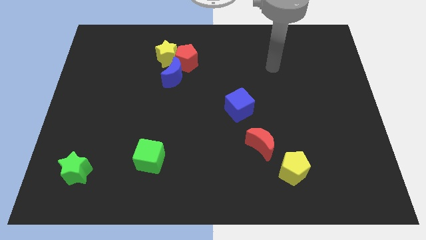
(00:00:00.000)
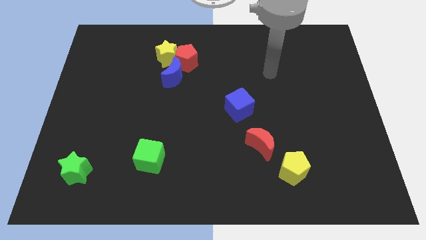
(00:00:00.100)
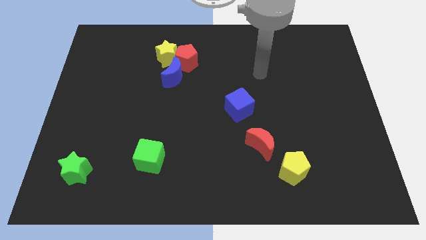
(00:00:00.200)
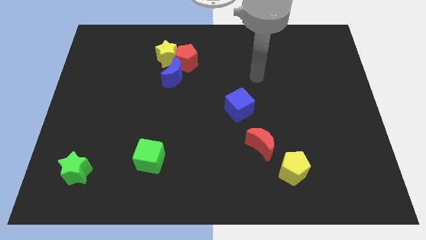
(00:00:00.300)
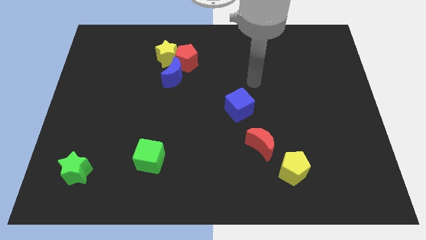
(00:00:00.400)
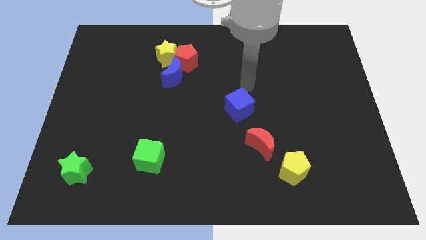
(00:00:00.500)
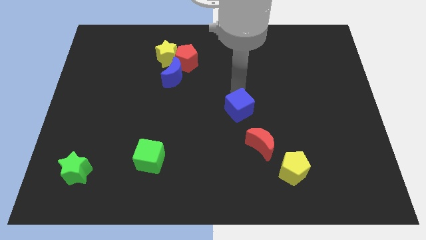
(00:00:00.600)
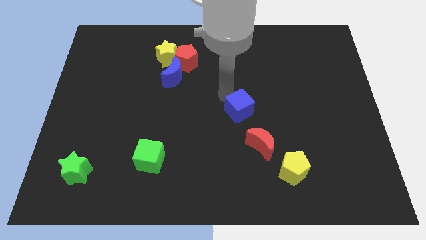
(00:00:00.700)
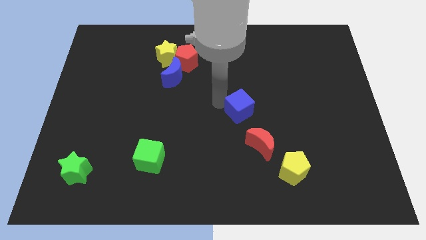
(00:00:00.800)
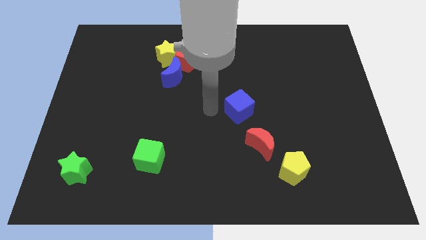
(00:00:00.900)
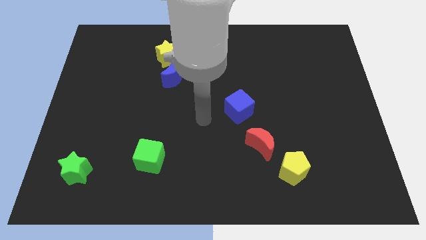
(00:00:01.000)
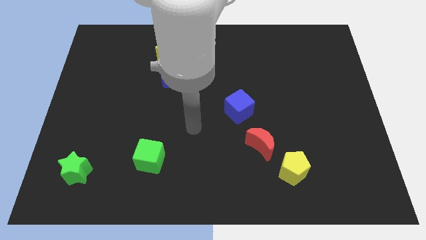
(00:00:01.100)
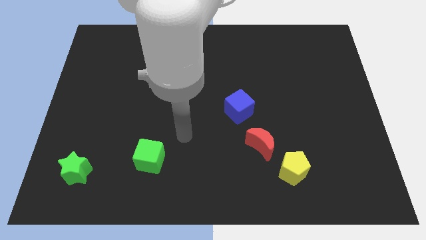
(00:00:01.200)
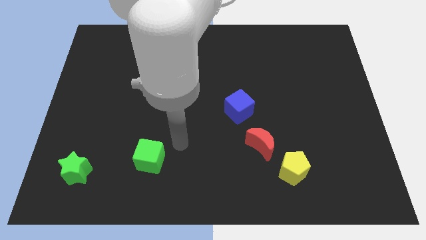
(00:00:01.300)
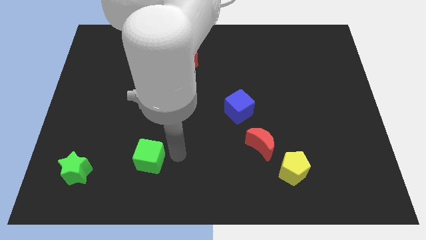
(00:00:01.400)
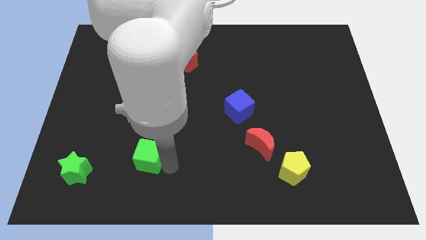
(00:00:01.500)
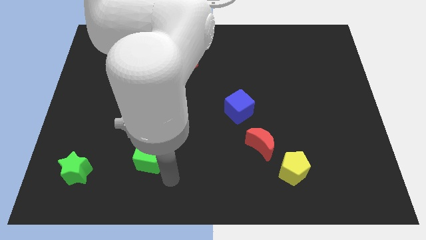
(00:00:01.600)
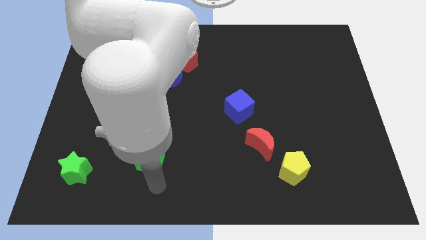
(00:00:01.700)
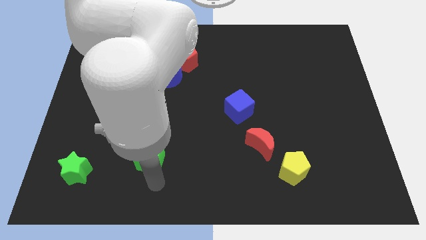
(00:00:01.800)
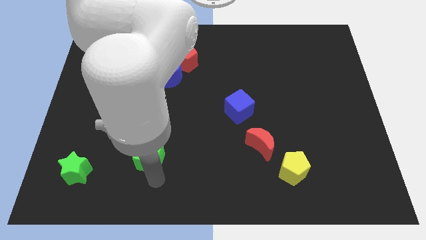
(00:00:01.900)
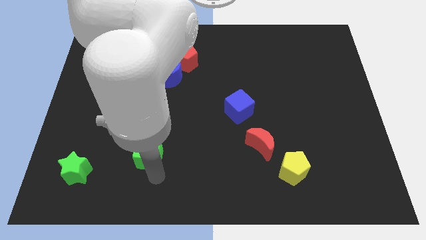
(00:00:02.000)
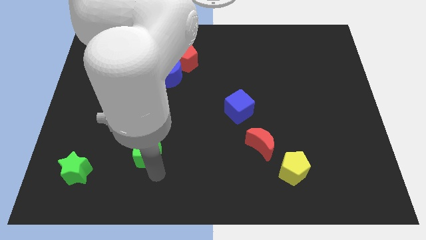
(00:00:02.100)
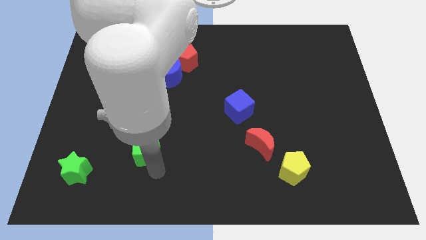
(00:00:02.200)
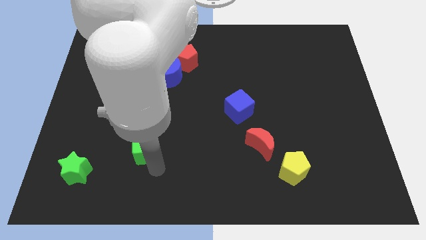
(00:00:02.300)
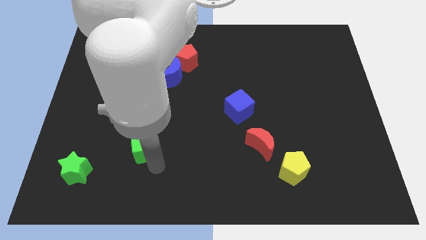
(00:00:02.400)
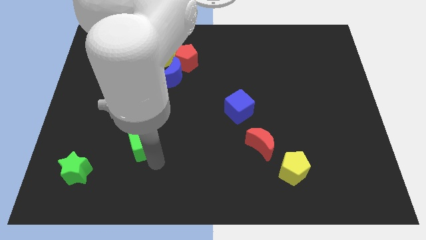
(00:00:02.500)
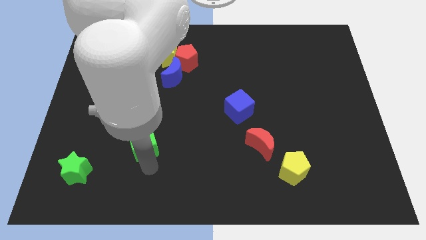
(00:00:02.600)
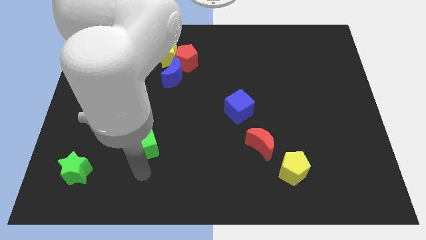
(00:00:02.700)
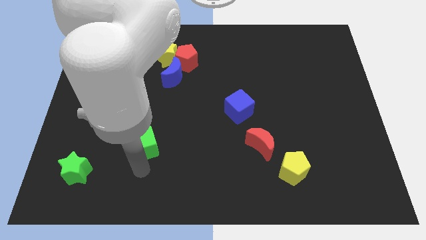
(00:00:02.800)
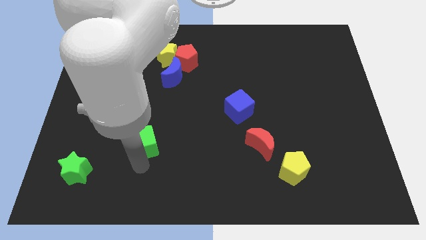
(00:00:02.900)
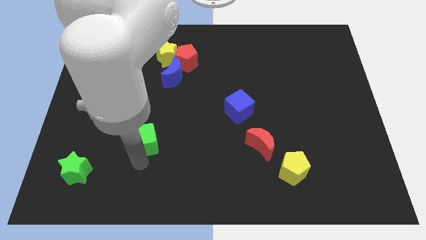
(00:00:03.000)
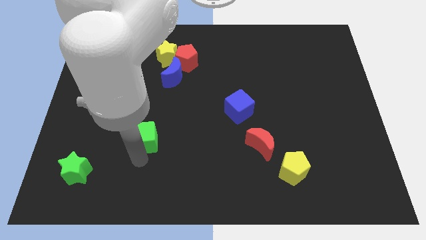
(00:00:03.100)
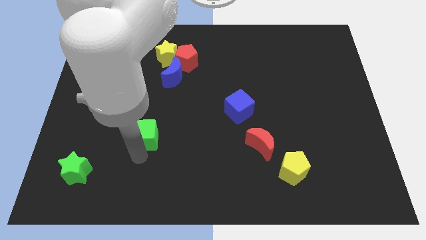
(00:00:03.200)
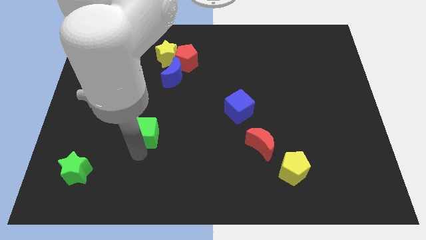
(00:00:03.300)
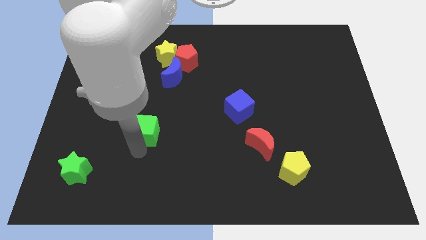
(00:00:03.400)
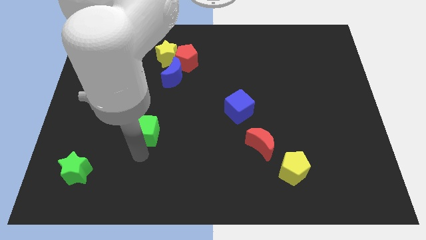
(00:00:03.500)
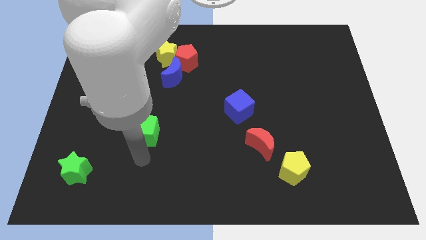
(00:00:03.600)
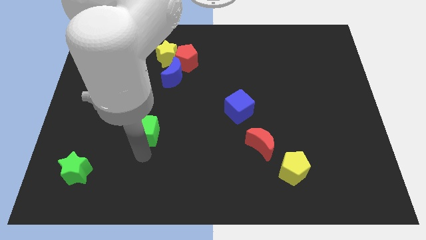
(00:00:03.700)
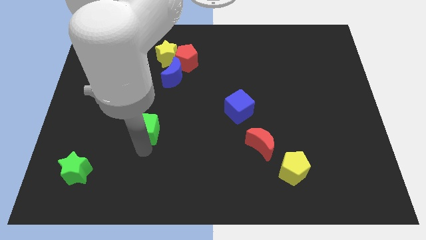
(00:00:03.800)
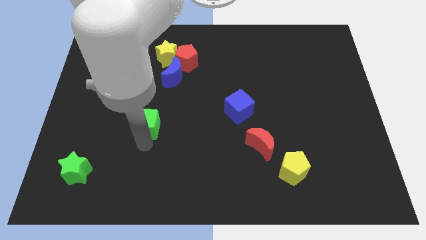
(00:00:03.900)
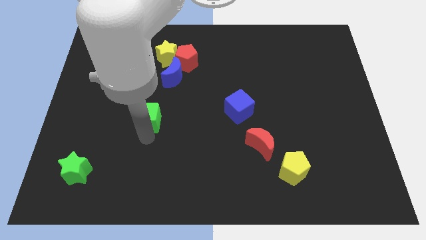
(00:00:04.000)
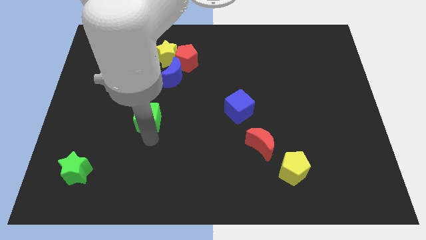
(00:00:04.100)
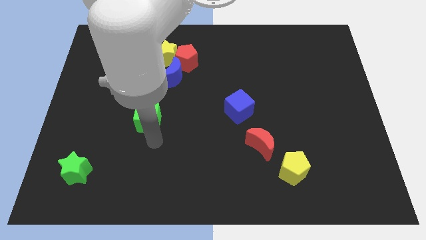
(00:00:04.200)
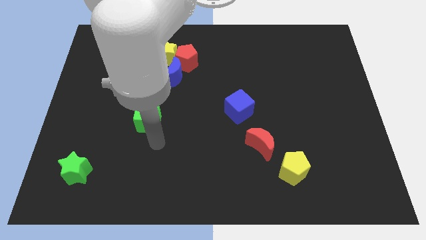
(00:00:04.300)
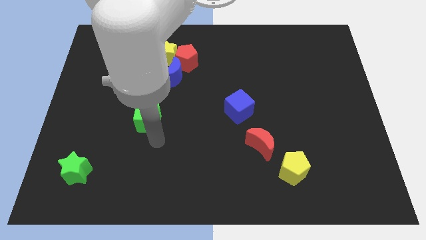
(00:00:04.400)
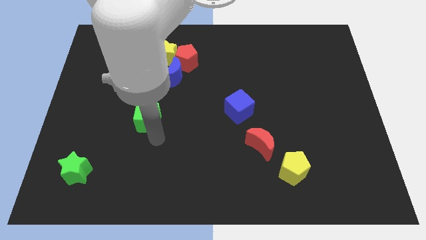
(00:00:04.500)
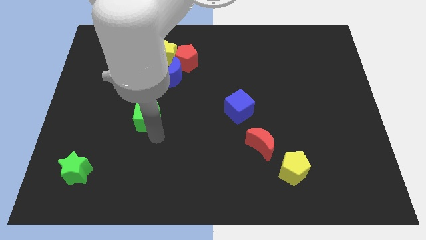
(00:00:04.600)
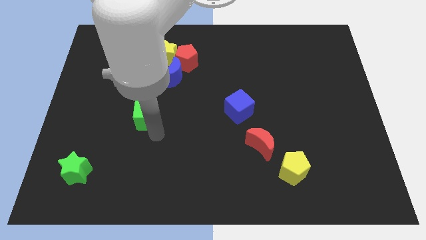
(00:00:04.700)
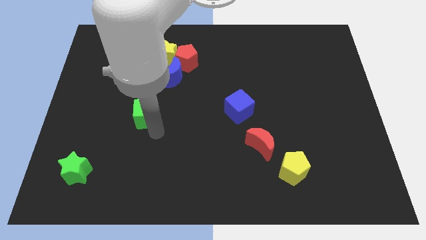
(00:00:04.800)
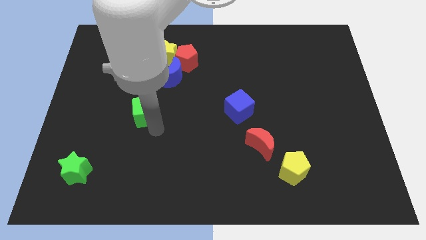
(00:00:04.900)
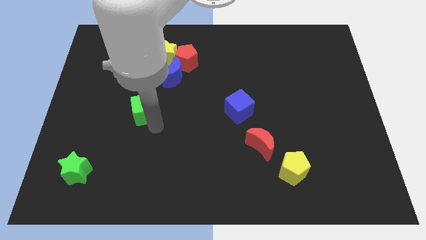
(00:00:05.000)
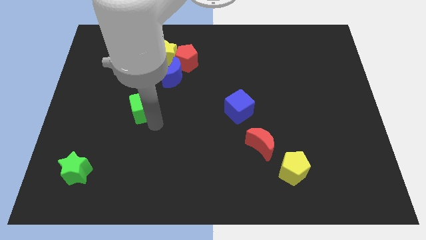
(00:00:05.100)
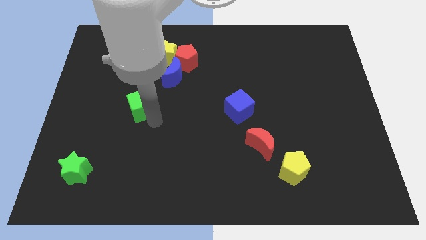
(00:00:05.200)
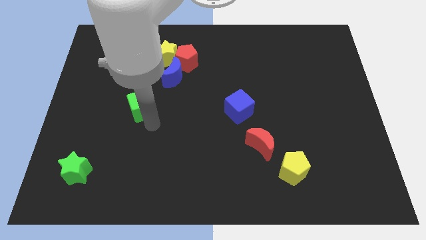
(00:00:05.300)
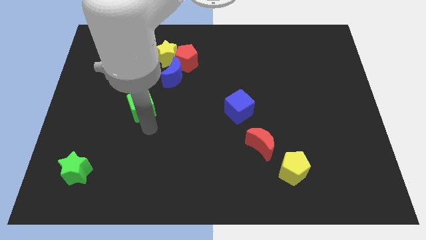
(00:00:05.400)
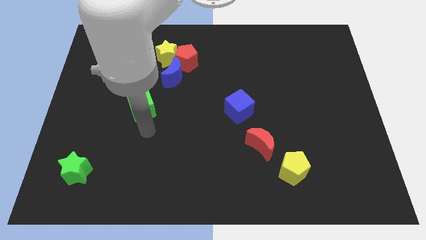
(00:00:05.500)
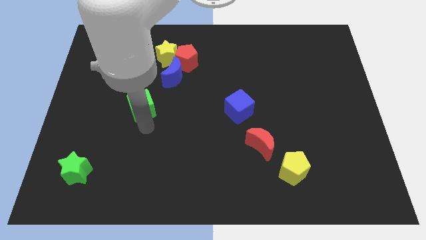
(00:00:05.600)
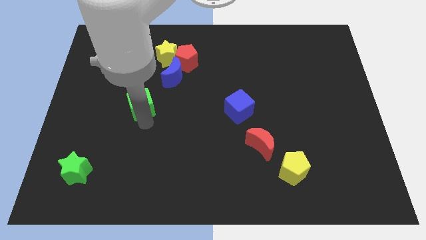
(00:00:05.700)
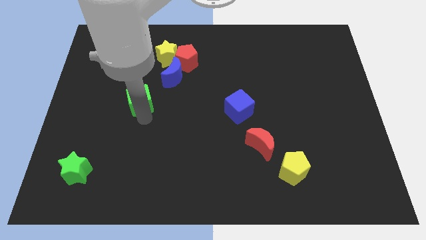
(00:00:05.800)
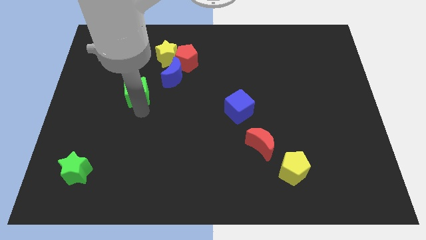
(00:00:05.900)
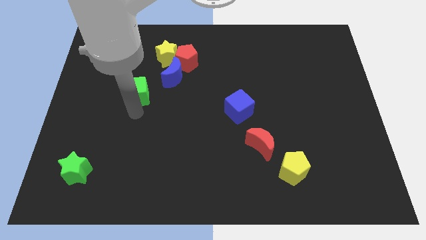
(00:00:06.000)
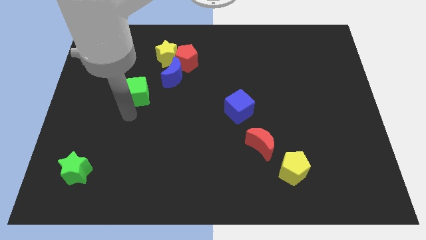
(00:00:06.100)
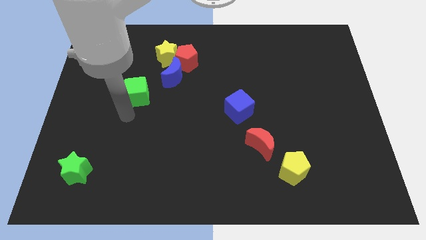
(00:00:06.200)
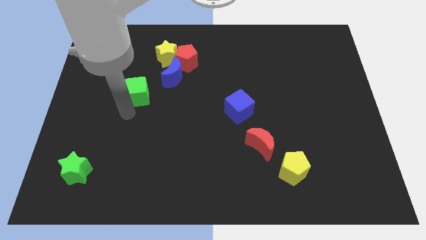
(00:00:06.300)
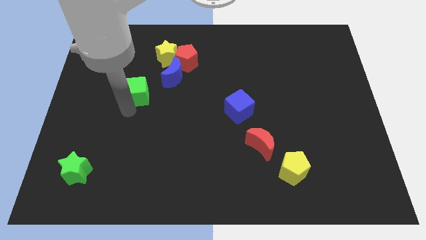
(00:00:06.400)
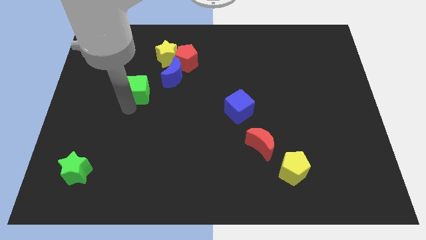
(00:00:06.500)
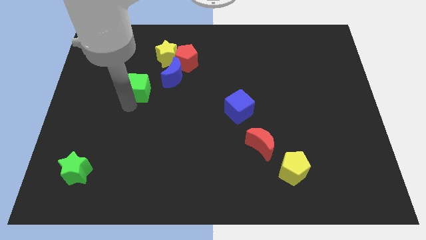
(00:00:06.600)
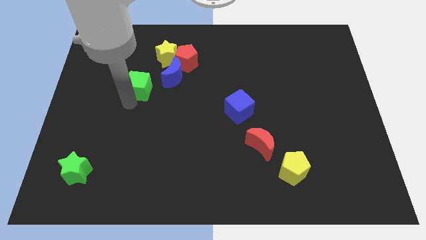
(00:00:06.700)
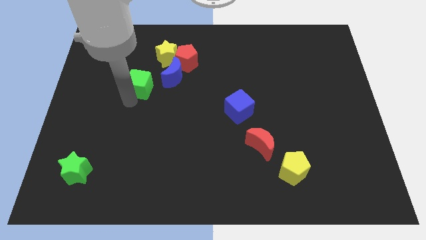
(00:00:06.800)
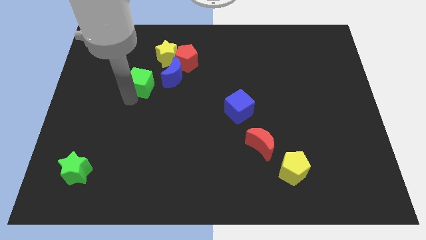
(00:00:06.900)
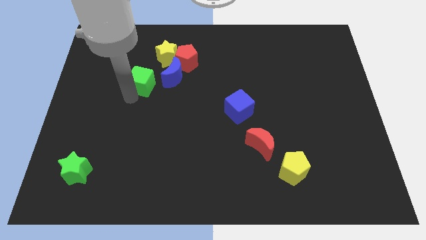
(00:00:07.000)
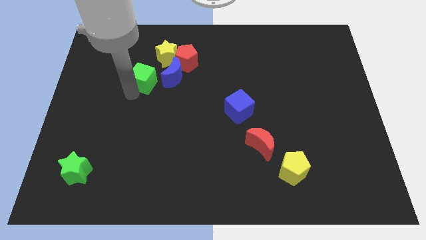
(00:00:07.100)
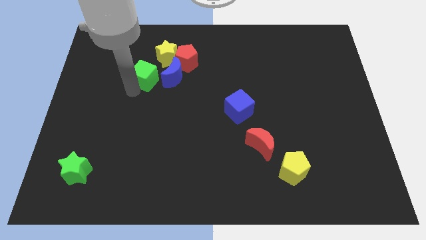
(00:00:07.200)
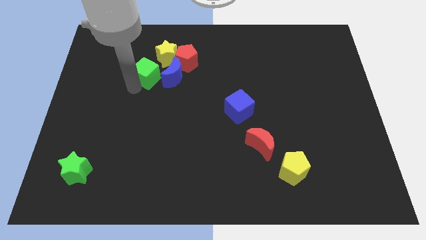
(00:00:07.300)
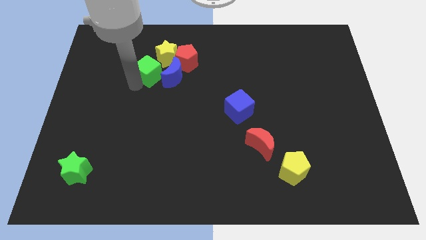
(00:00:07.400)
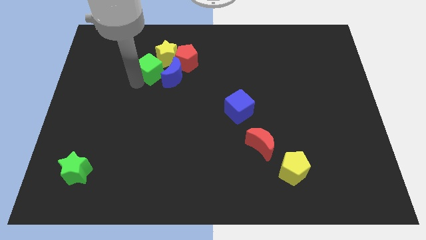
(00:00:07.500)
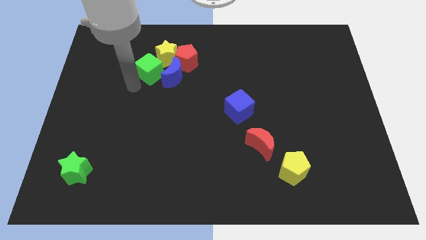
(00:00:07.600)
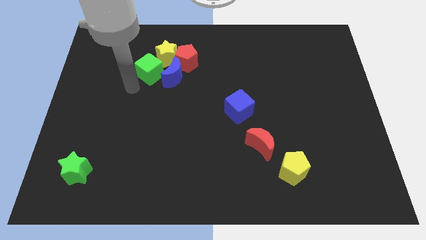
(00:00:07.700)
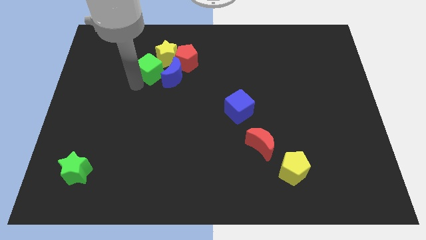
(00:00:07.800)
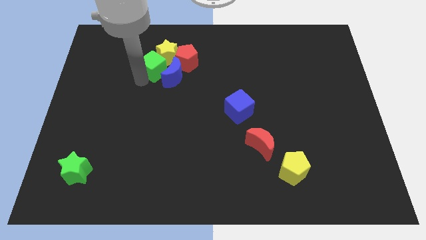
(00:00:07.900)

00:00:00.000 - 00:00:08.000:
move the green cube close to the yellow star
